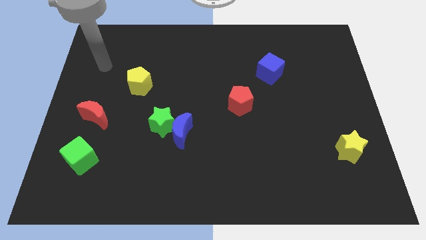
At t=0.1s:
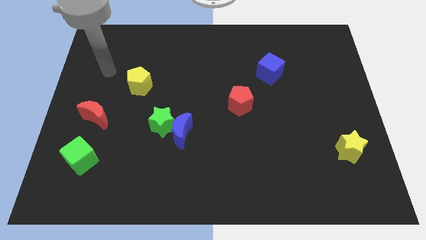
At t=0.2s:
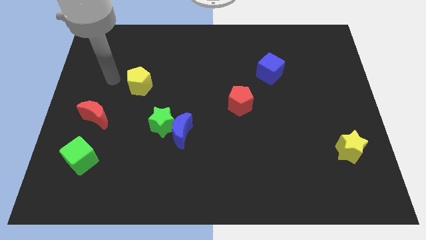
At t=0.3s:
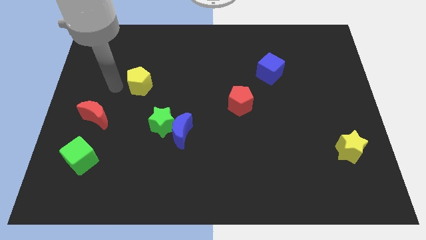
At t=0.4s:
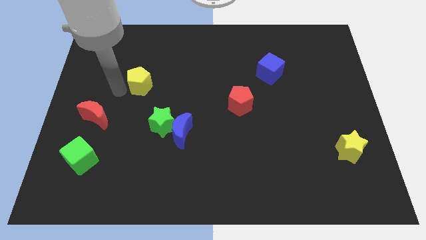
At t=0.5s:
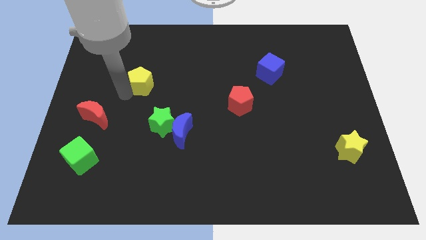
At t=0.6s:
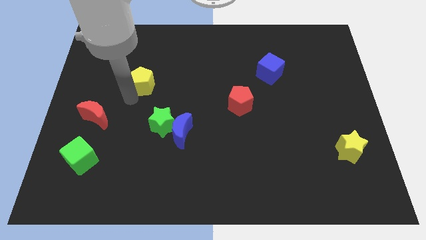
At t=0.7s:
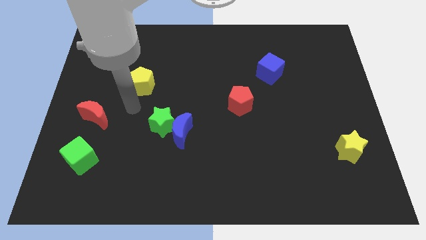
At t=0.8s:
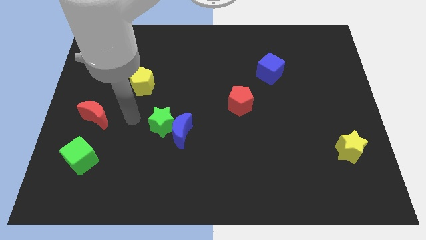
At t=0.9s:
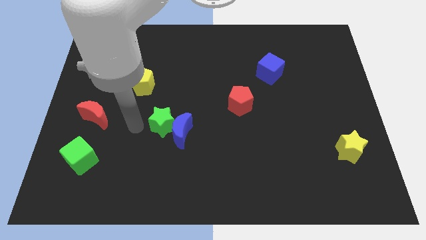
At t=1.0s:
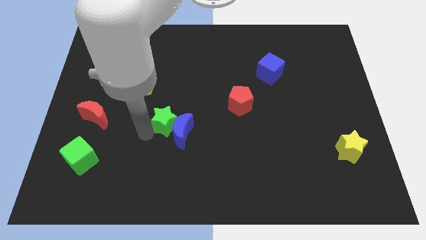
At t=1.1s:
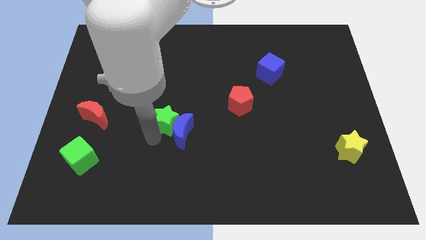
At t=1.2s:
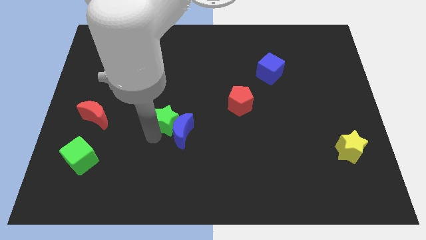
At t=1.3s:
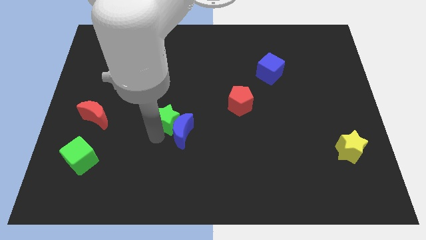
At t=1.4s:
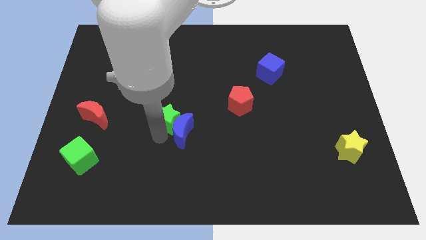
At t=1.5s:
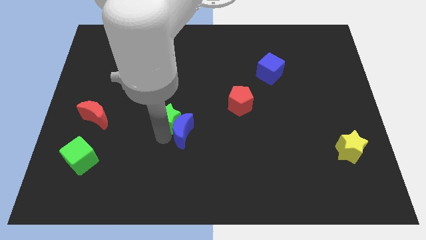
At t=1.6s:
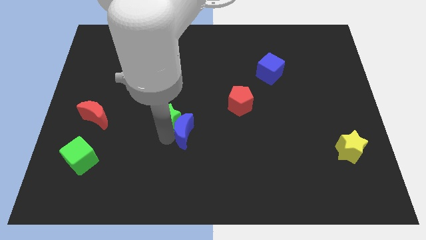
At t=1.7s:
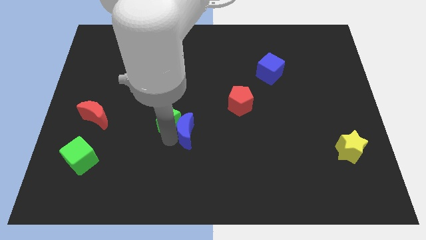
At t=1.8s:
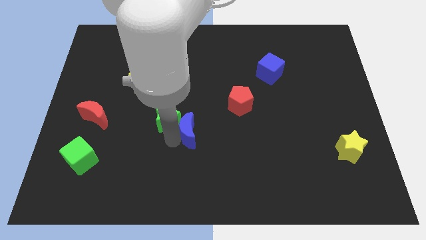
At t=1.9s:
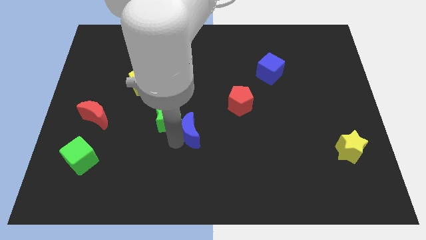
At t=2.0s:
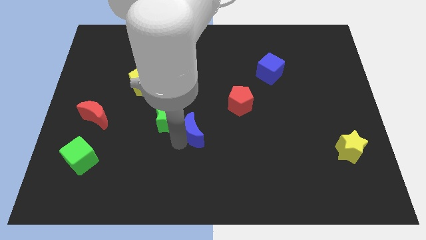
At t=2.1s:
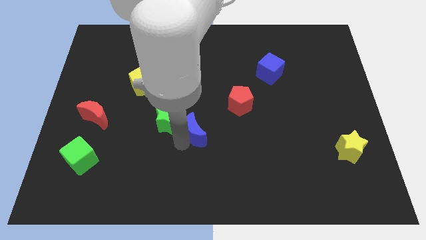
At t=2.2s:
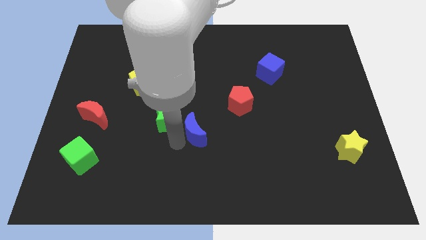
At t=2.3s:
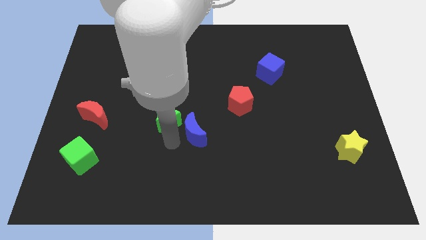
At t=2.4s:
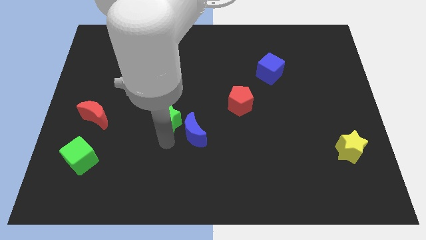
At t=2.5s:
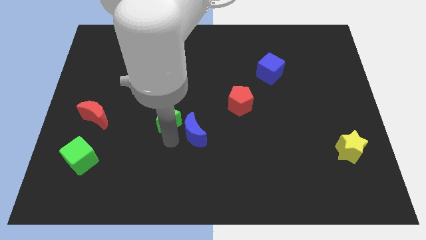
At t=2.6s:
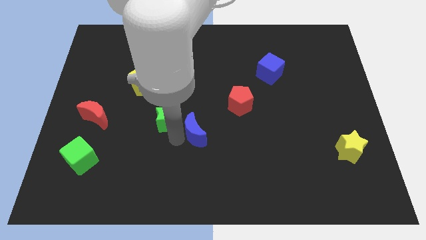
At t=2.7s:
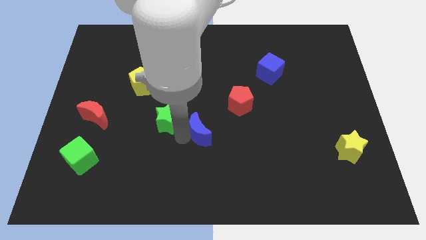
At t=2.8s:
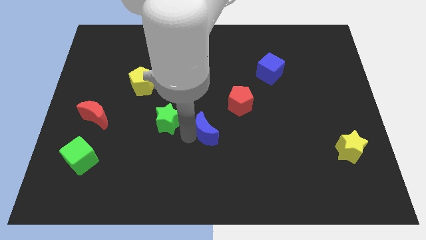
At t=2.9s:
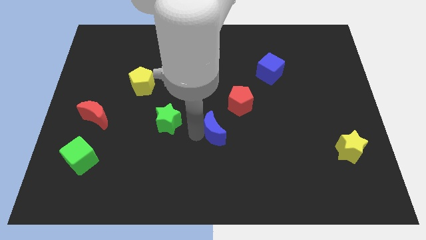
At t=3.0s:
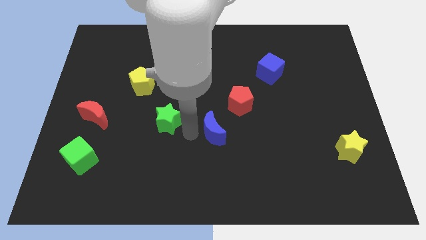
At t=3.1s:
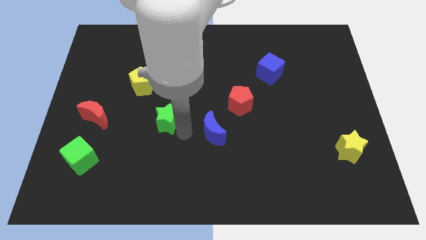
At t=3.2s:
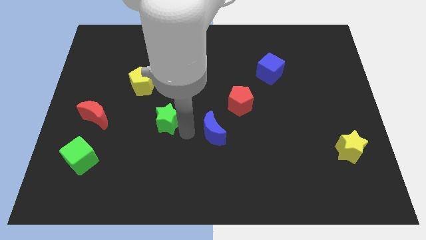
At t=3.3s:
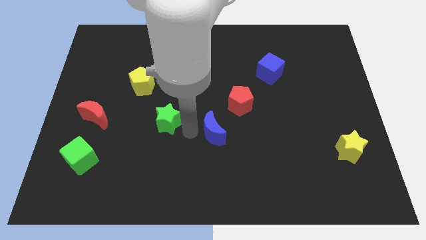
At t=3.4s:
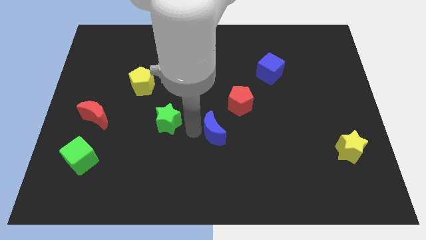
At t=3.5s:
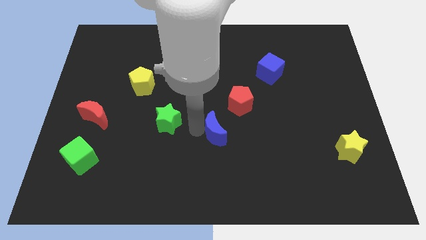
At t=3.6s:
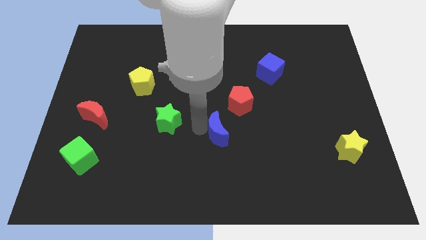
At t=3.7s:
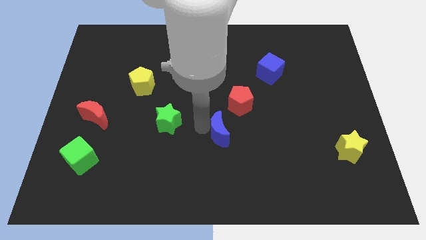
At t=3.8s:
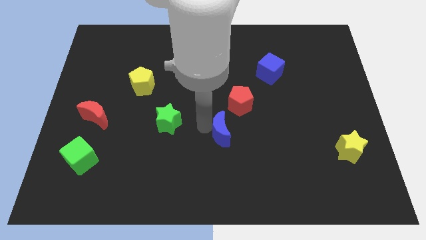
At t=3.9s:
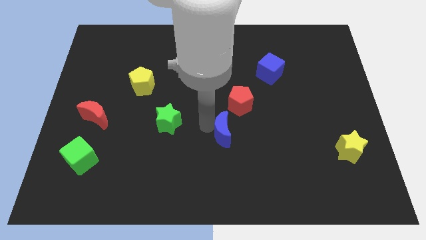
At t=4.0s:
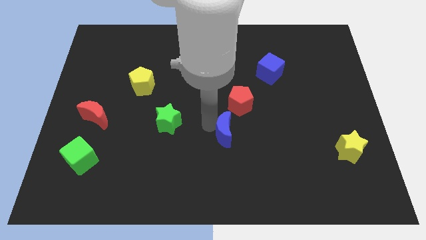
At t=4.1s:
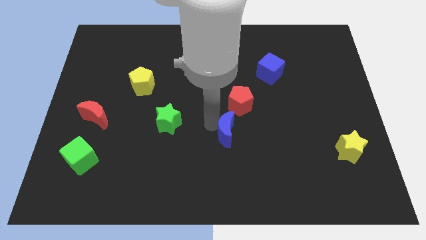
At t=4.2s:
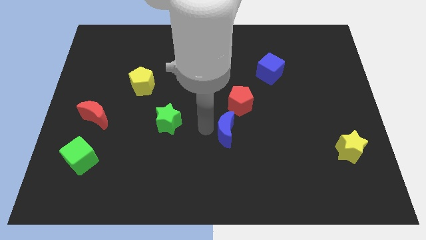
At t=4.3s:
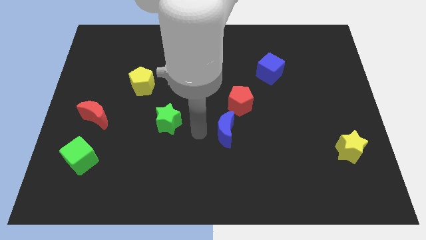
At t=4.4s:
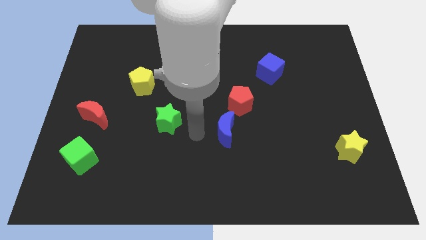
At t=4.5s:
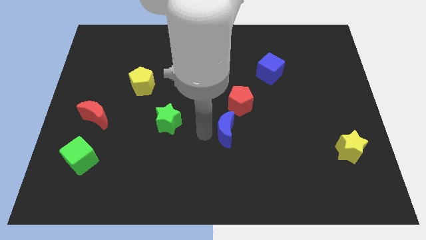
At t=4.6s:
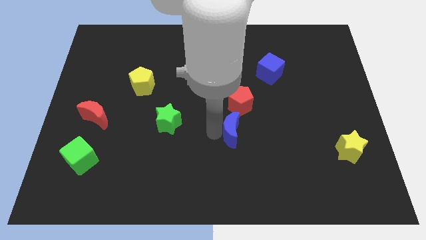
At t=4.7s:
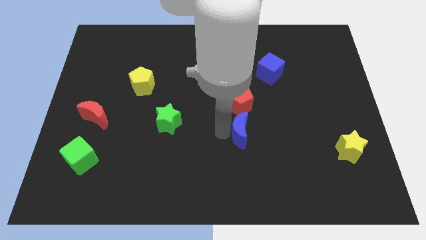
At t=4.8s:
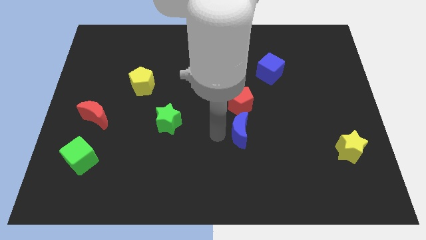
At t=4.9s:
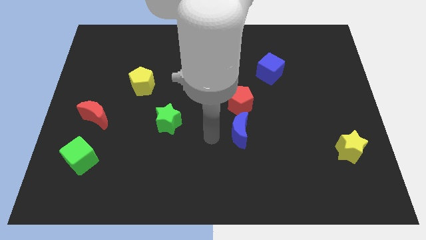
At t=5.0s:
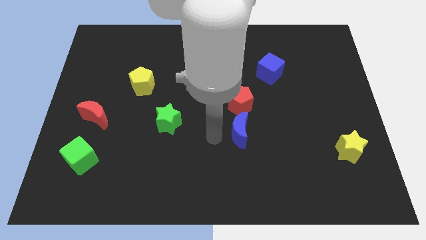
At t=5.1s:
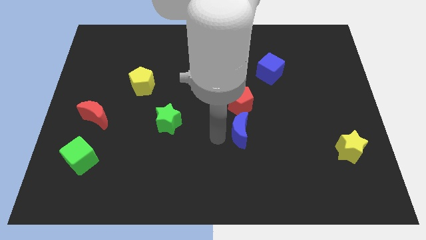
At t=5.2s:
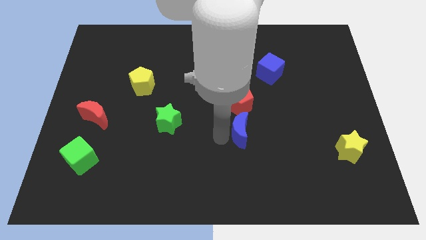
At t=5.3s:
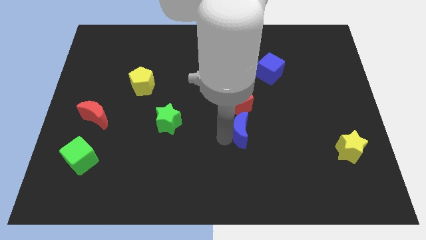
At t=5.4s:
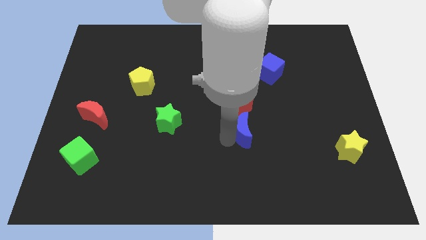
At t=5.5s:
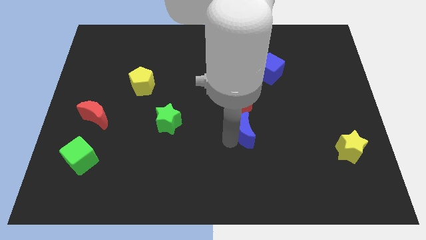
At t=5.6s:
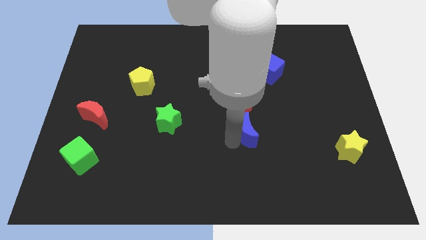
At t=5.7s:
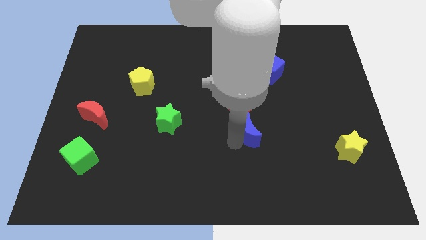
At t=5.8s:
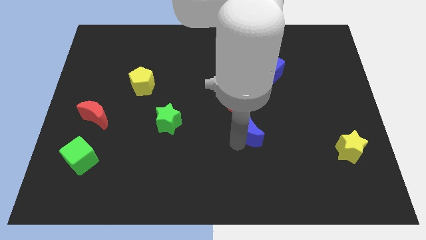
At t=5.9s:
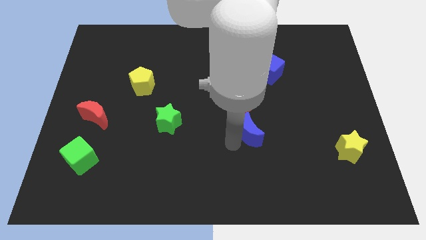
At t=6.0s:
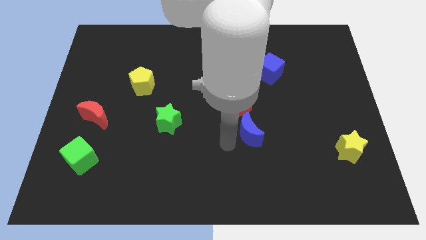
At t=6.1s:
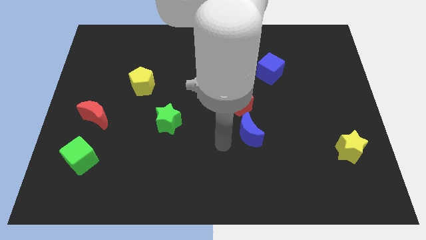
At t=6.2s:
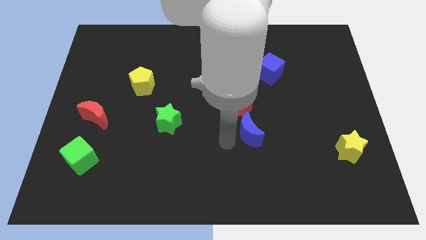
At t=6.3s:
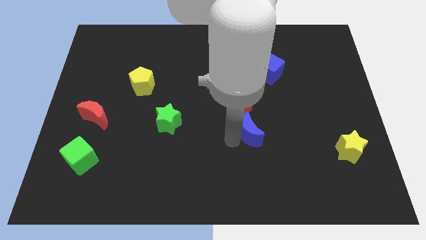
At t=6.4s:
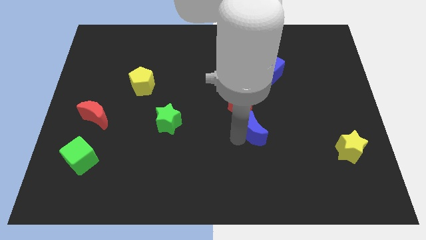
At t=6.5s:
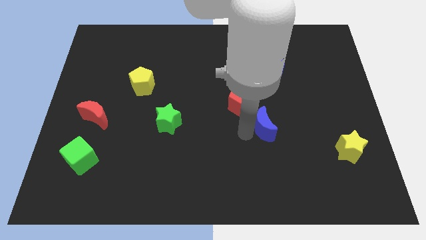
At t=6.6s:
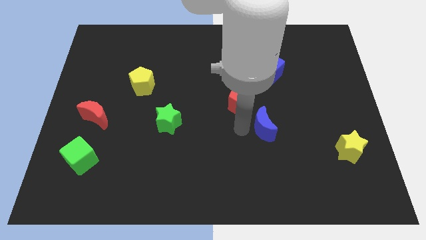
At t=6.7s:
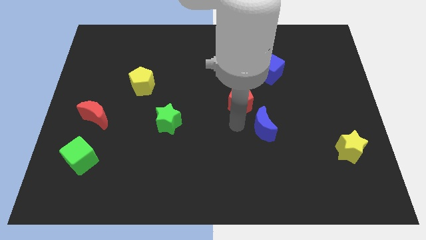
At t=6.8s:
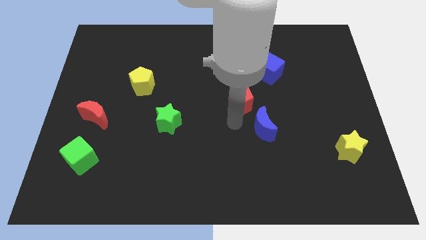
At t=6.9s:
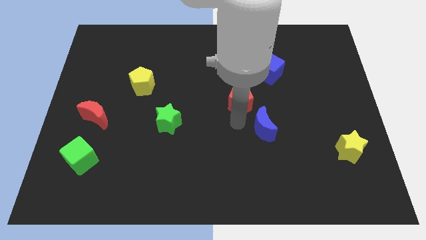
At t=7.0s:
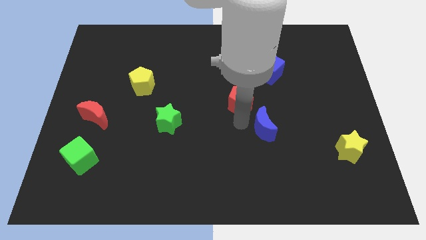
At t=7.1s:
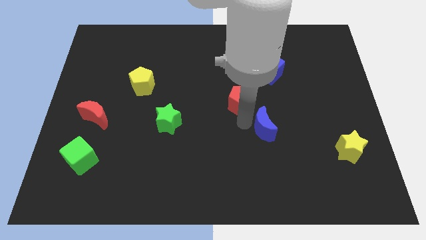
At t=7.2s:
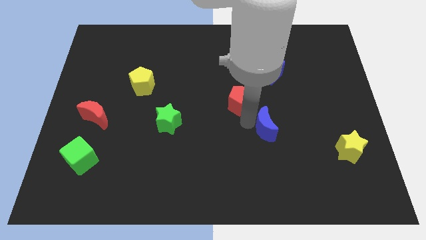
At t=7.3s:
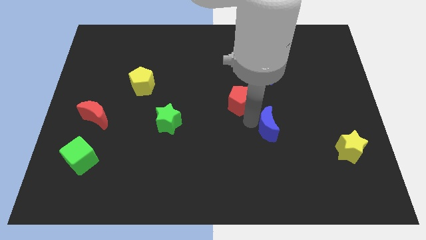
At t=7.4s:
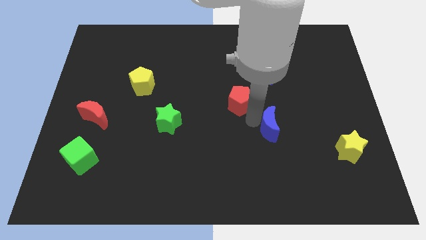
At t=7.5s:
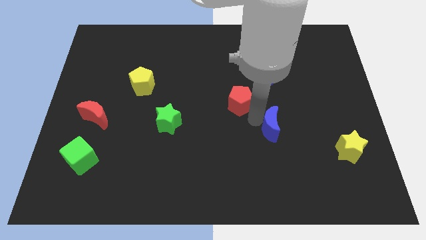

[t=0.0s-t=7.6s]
move the blue moon to the right

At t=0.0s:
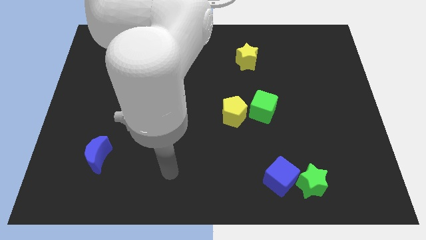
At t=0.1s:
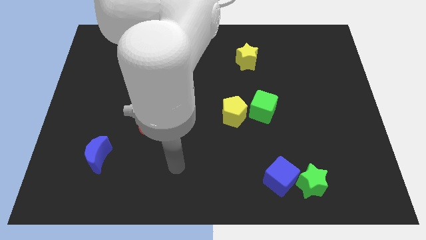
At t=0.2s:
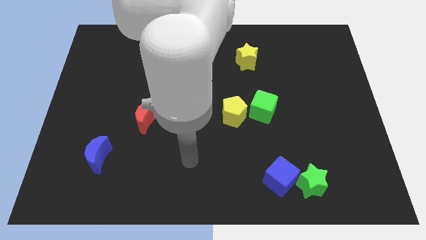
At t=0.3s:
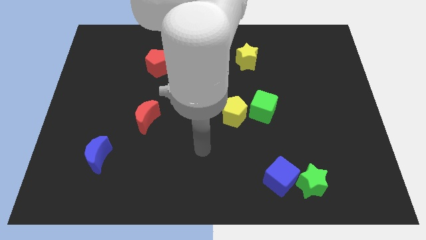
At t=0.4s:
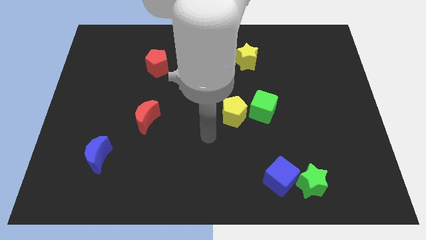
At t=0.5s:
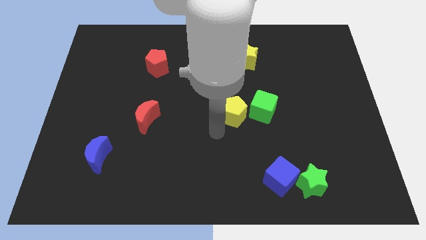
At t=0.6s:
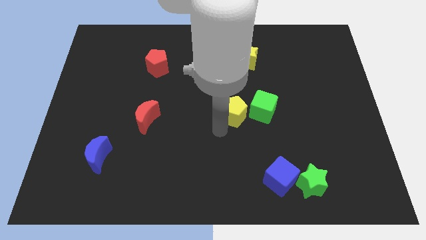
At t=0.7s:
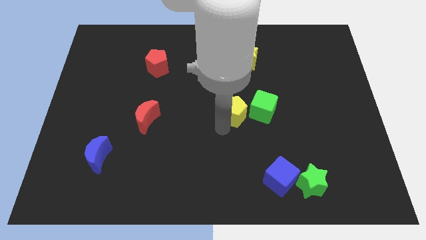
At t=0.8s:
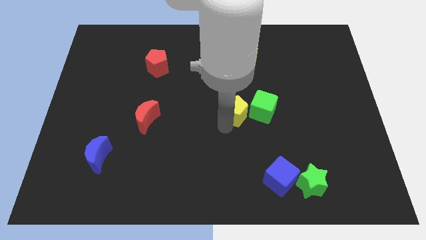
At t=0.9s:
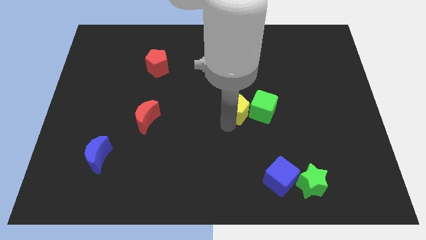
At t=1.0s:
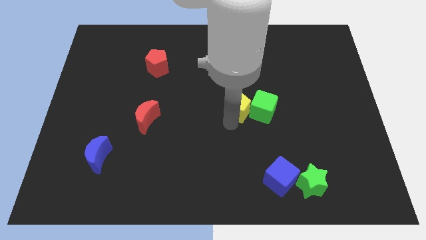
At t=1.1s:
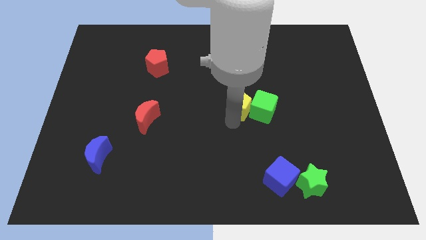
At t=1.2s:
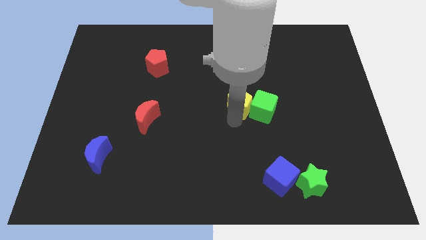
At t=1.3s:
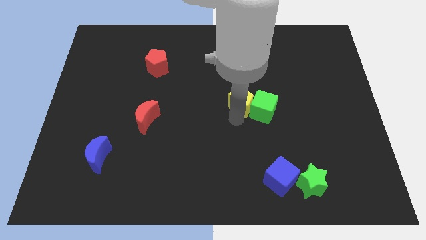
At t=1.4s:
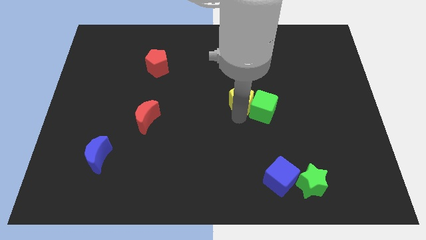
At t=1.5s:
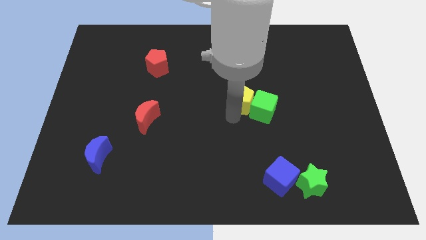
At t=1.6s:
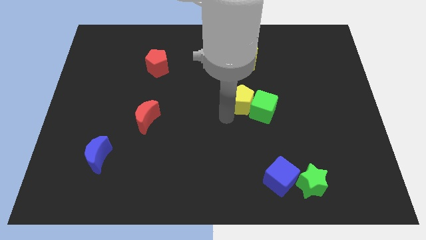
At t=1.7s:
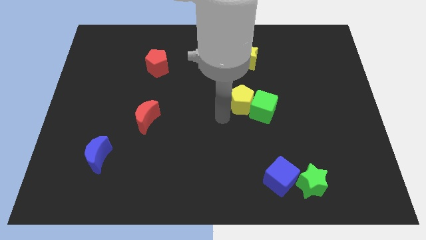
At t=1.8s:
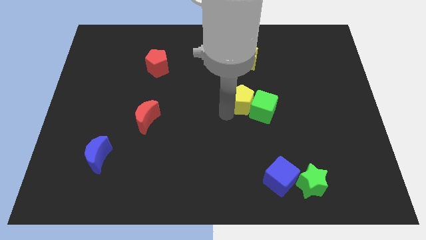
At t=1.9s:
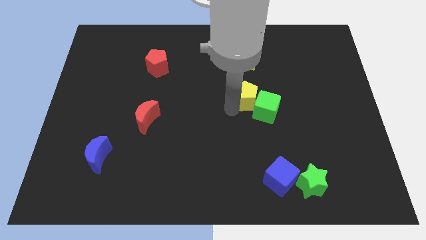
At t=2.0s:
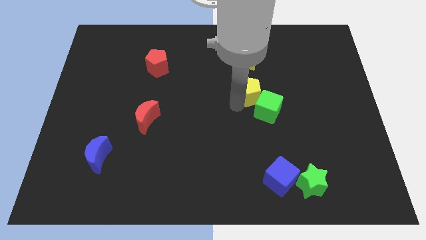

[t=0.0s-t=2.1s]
push the yellow pentagon upwards and then to the right somewhat
